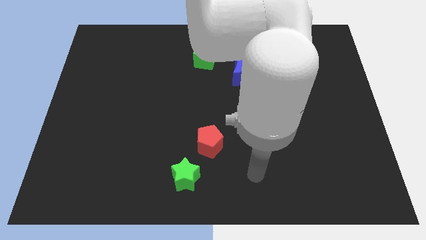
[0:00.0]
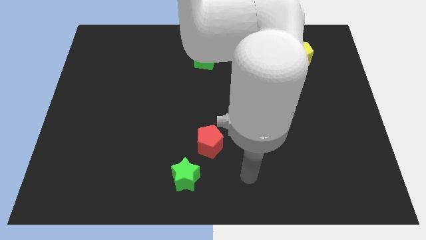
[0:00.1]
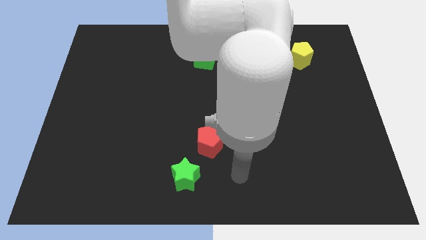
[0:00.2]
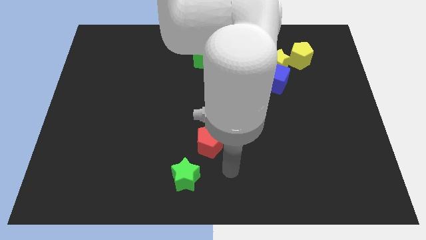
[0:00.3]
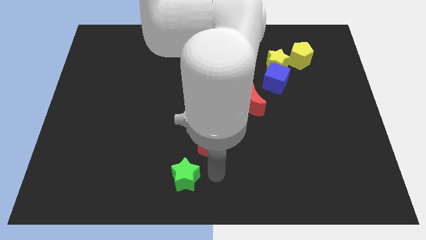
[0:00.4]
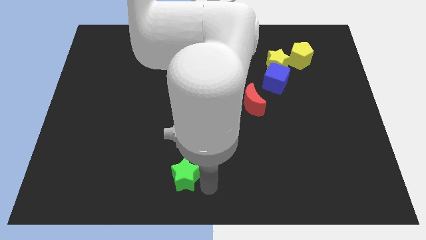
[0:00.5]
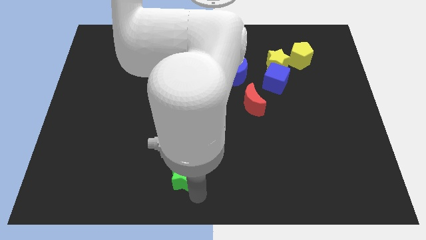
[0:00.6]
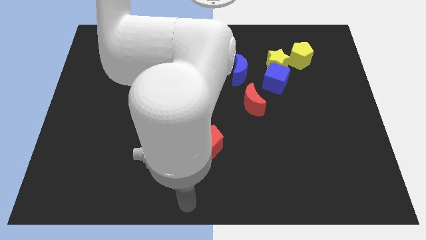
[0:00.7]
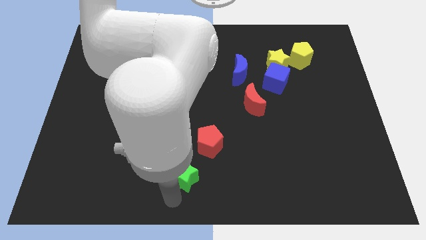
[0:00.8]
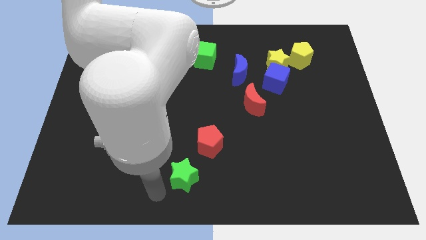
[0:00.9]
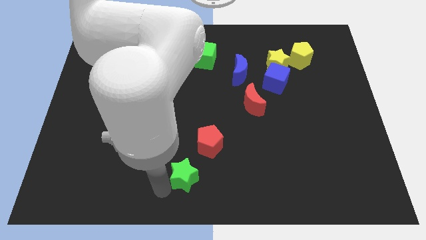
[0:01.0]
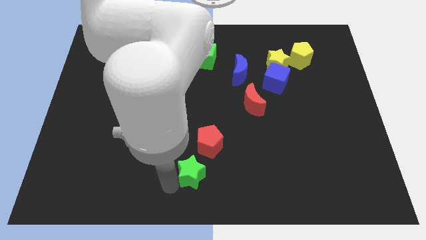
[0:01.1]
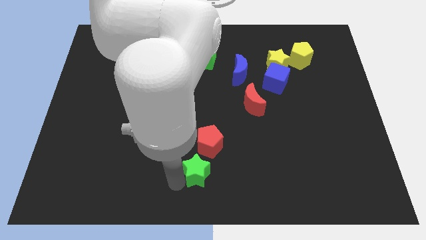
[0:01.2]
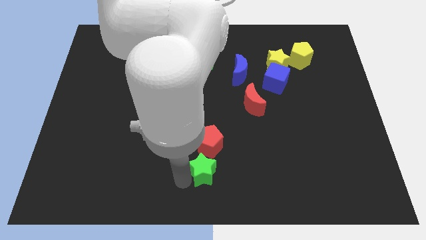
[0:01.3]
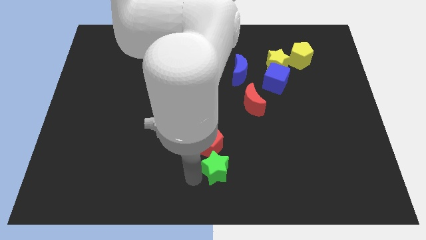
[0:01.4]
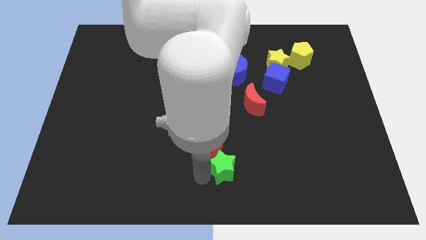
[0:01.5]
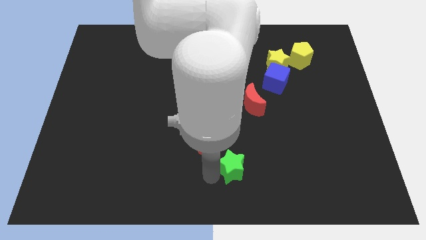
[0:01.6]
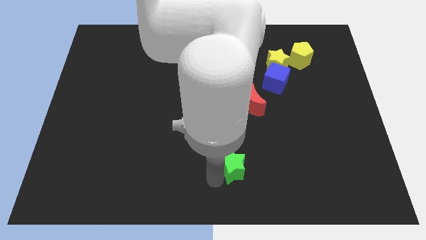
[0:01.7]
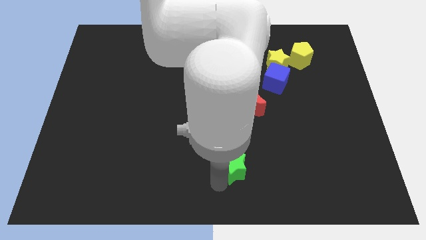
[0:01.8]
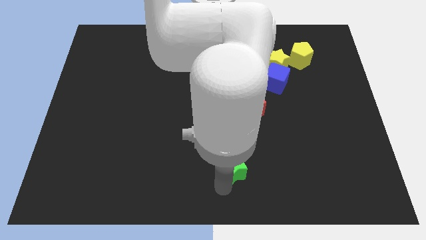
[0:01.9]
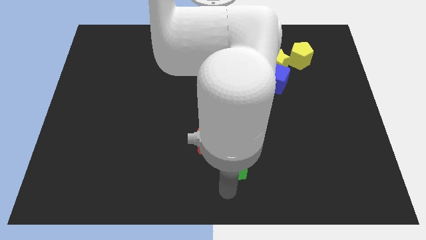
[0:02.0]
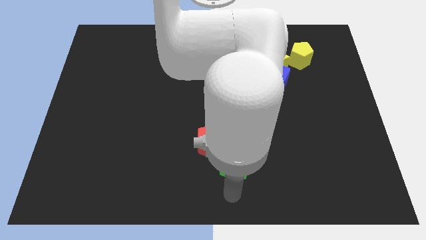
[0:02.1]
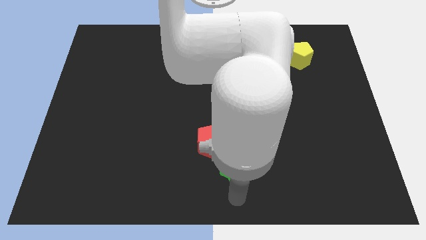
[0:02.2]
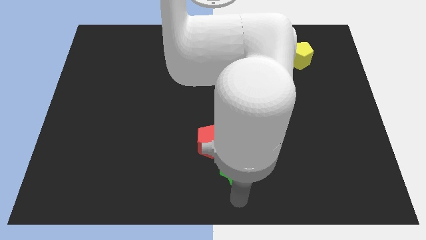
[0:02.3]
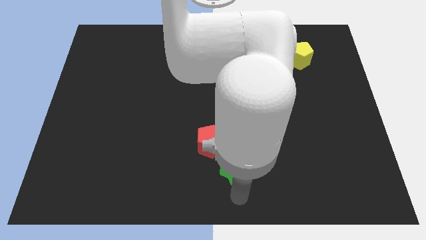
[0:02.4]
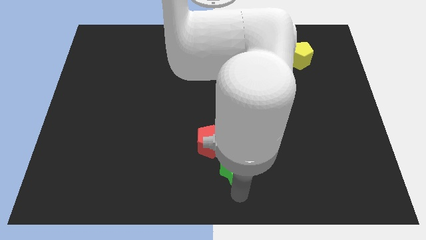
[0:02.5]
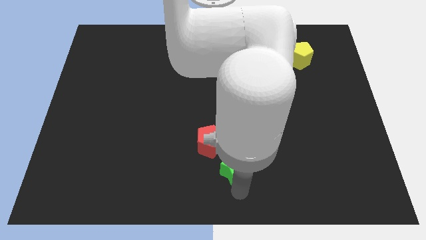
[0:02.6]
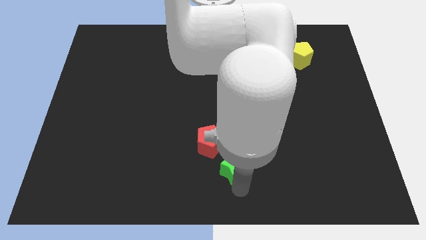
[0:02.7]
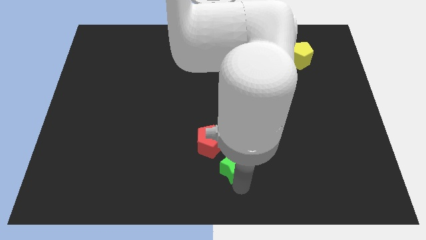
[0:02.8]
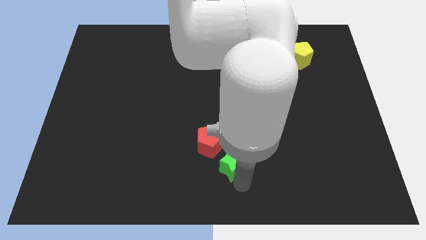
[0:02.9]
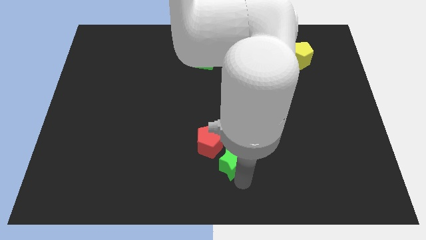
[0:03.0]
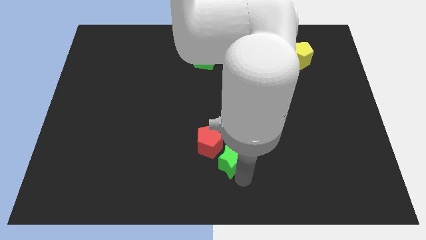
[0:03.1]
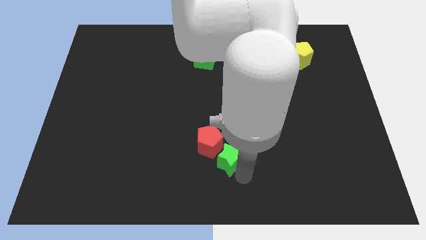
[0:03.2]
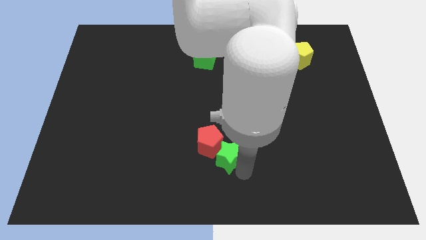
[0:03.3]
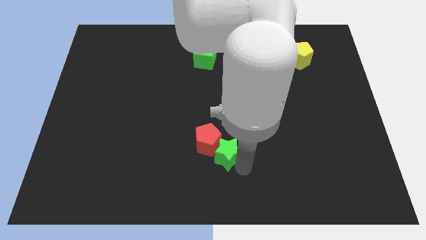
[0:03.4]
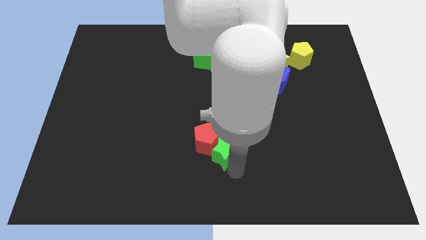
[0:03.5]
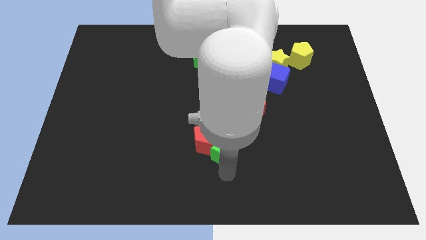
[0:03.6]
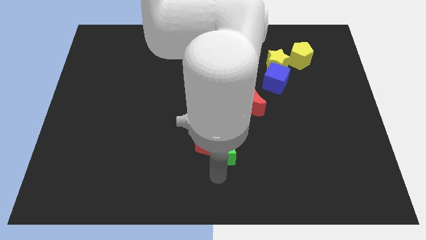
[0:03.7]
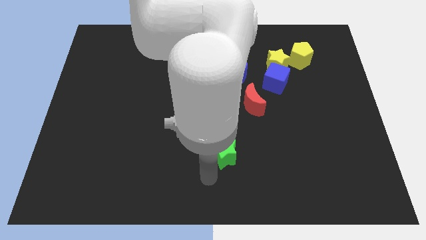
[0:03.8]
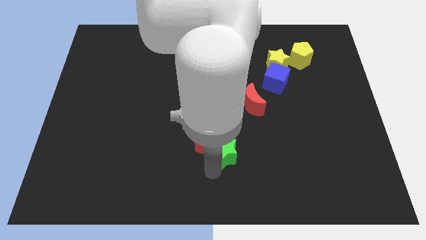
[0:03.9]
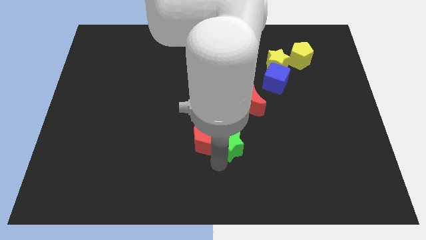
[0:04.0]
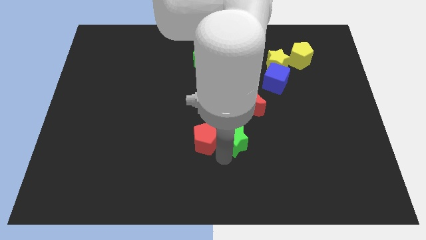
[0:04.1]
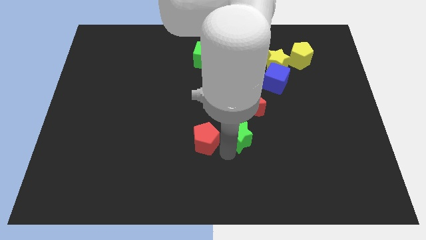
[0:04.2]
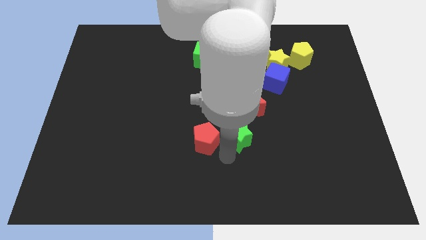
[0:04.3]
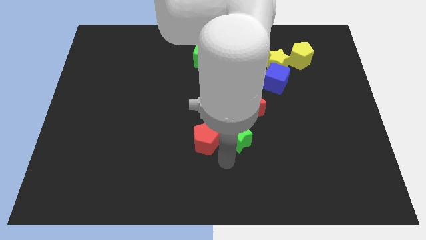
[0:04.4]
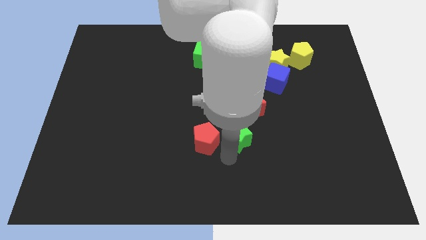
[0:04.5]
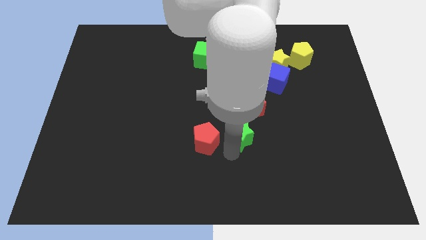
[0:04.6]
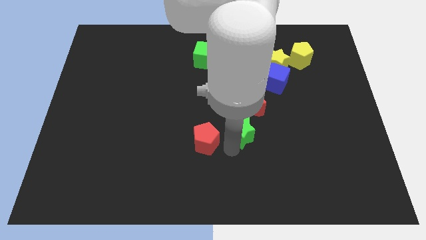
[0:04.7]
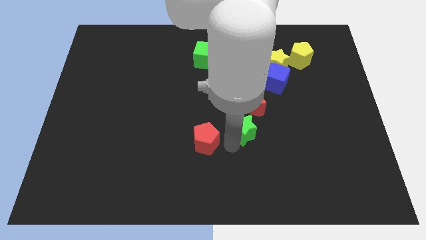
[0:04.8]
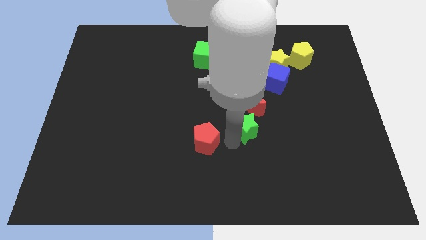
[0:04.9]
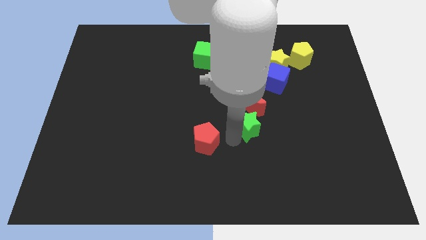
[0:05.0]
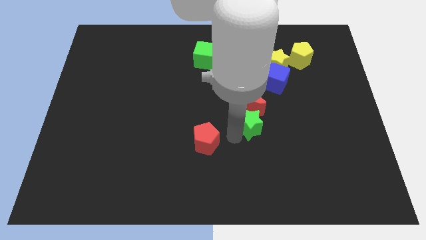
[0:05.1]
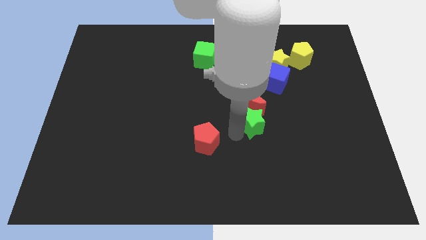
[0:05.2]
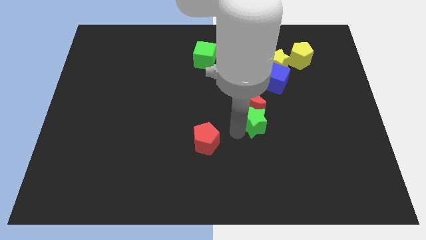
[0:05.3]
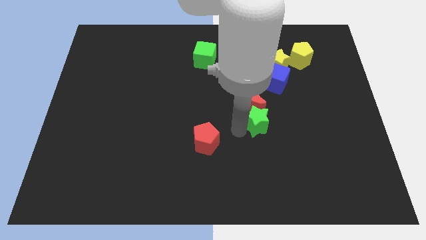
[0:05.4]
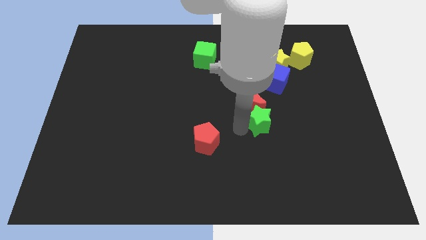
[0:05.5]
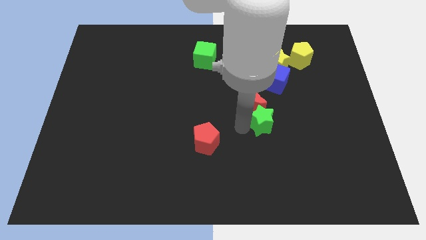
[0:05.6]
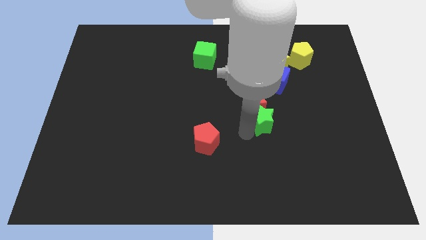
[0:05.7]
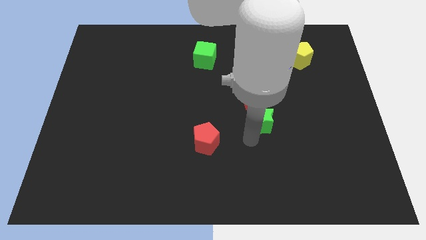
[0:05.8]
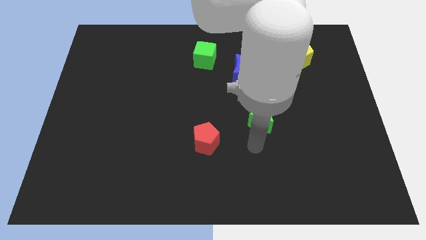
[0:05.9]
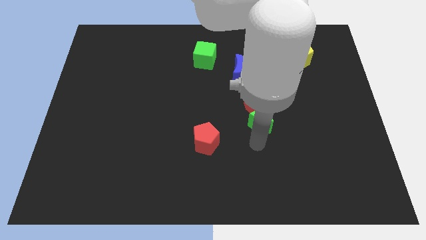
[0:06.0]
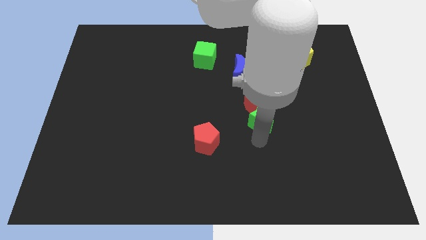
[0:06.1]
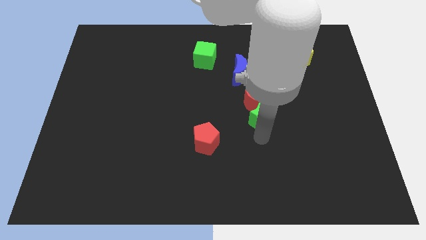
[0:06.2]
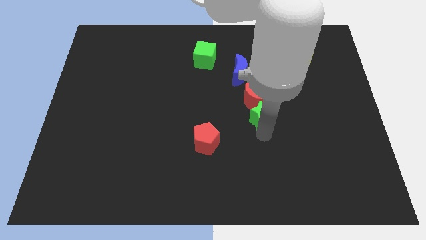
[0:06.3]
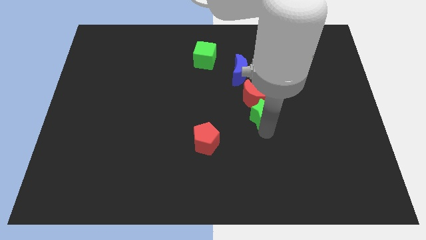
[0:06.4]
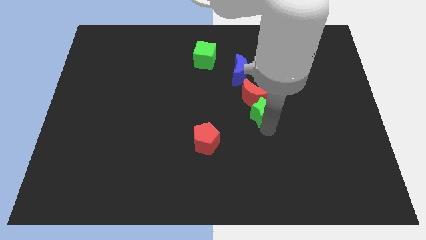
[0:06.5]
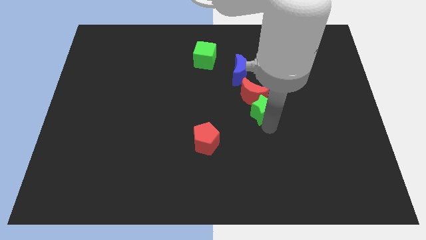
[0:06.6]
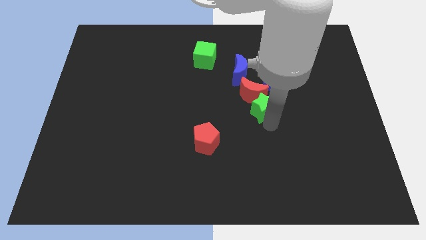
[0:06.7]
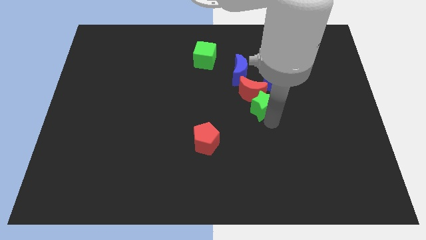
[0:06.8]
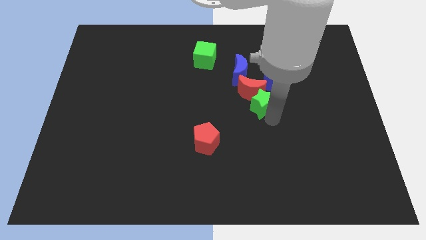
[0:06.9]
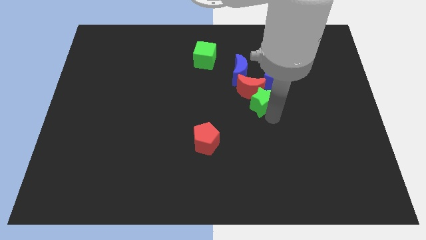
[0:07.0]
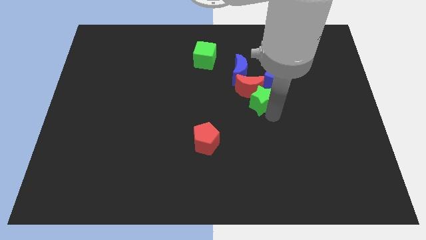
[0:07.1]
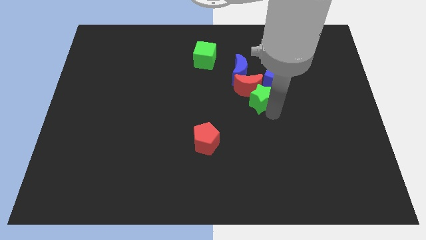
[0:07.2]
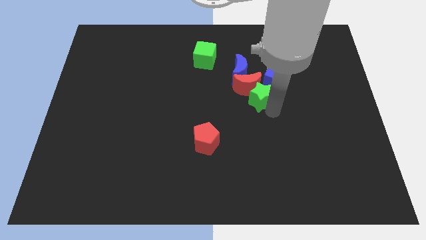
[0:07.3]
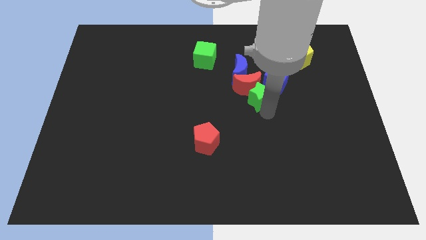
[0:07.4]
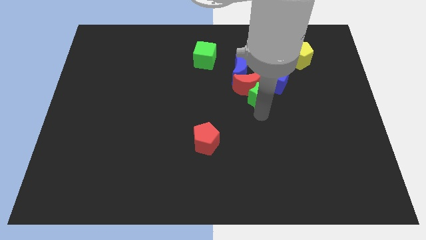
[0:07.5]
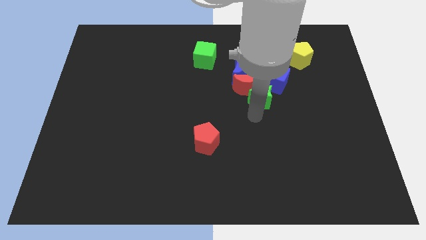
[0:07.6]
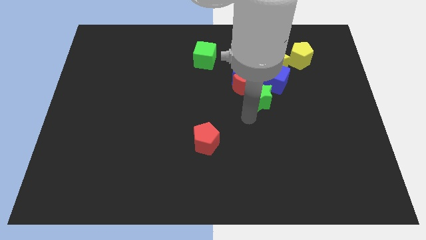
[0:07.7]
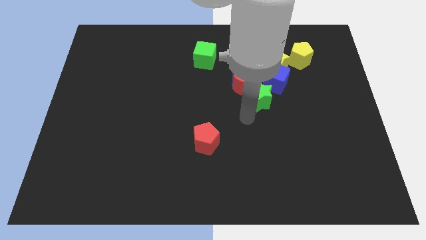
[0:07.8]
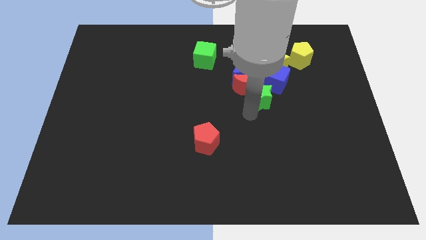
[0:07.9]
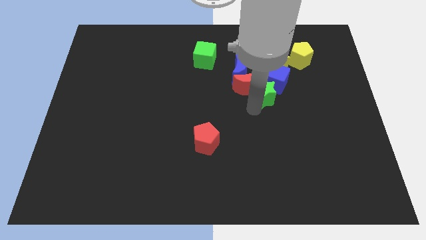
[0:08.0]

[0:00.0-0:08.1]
put the green star to the blue cube
